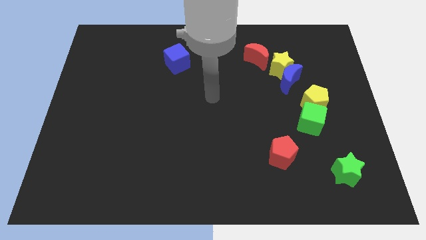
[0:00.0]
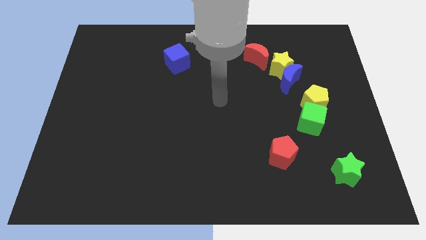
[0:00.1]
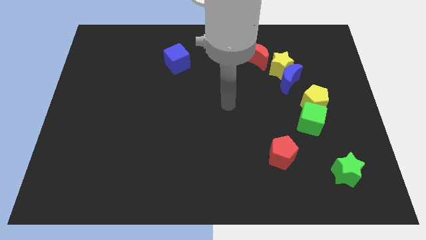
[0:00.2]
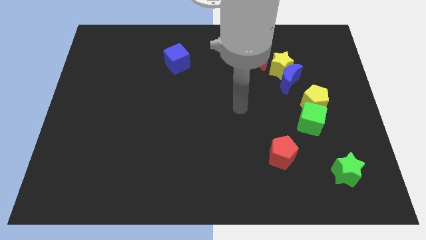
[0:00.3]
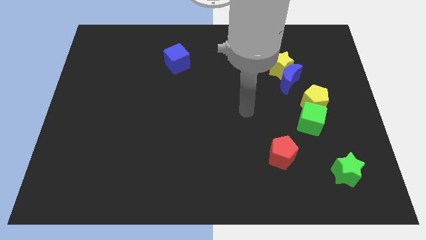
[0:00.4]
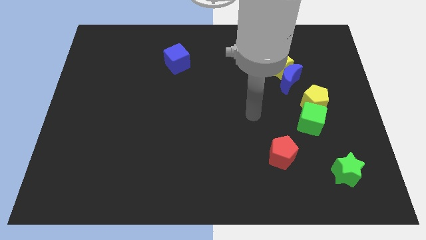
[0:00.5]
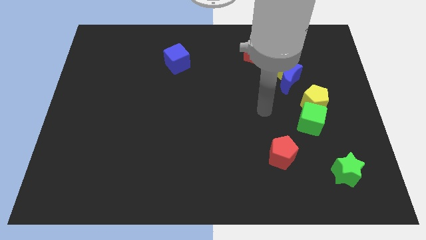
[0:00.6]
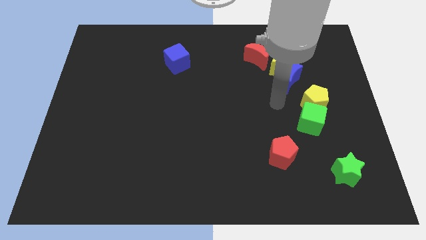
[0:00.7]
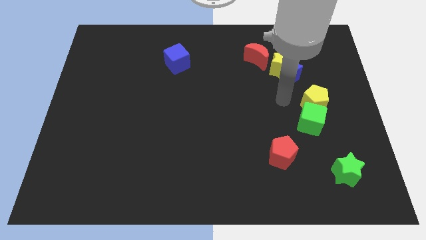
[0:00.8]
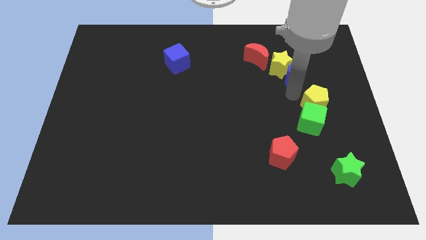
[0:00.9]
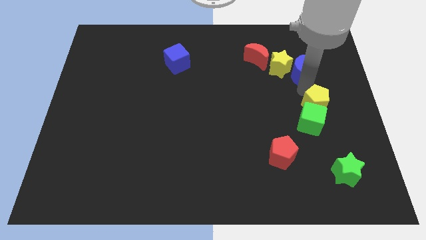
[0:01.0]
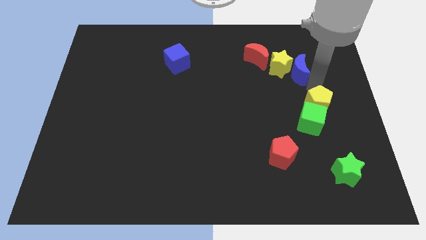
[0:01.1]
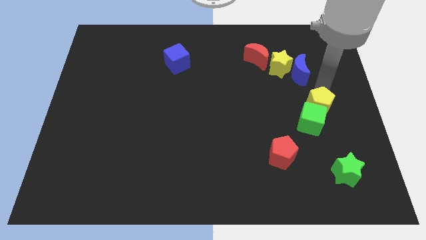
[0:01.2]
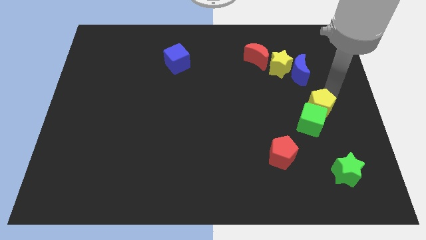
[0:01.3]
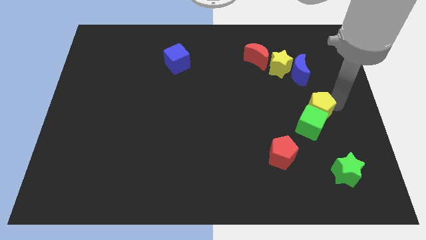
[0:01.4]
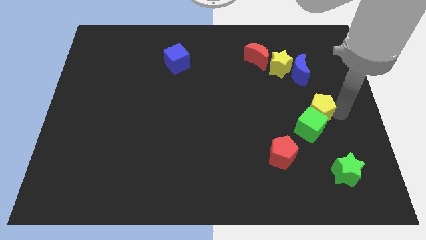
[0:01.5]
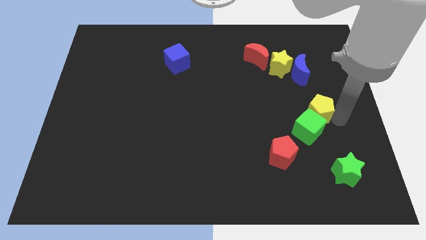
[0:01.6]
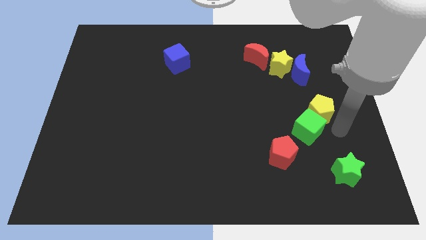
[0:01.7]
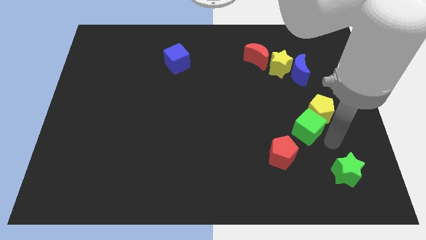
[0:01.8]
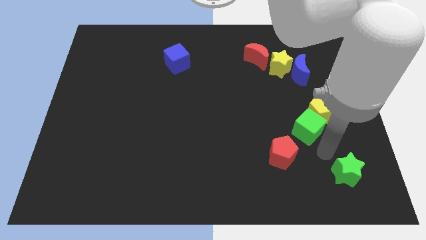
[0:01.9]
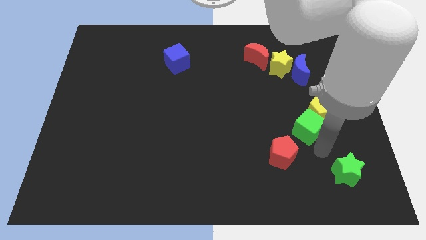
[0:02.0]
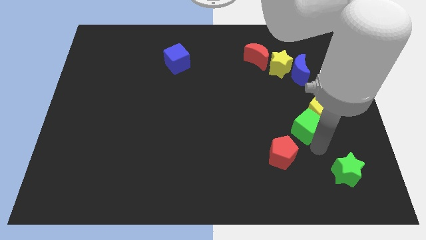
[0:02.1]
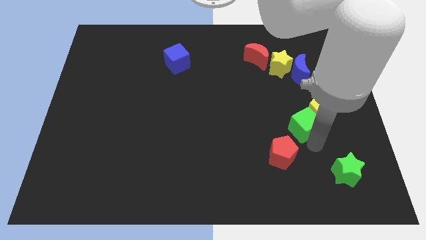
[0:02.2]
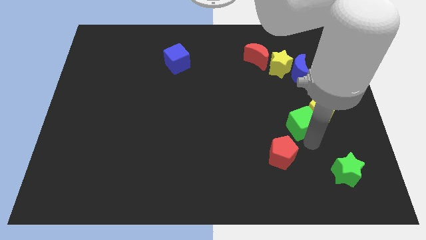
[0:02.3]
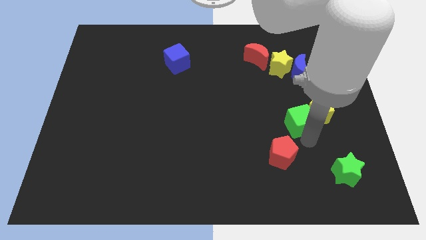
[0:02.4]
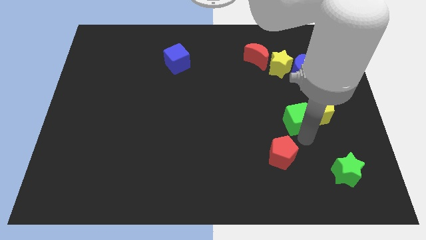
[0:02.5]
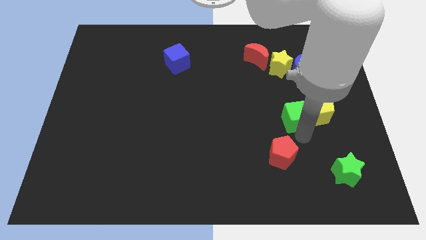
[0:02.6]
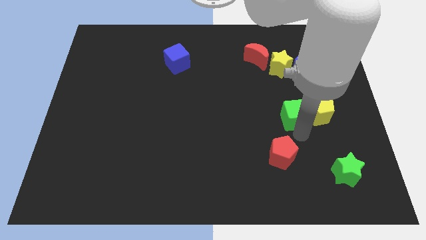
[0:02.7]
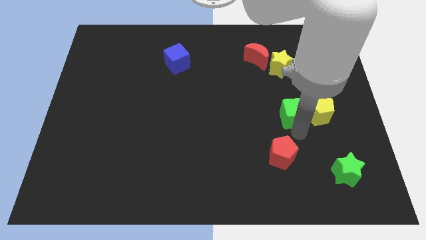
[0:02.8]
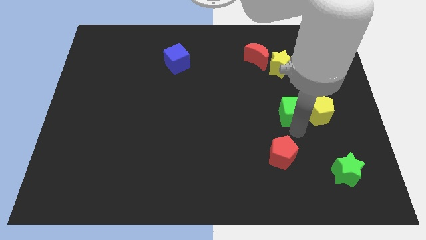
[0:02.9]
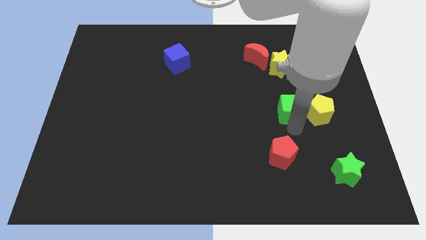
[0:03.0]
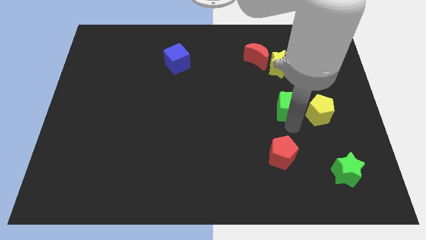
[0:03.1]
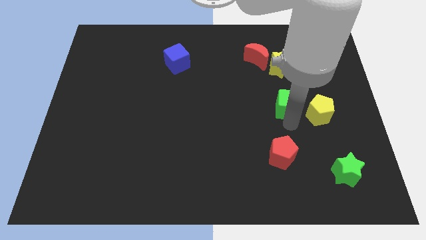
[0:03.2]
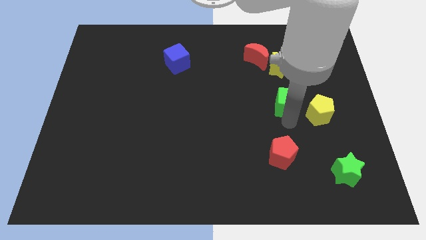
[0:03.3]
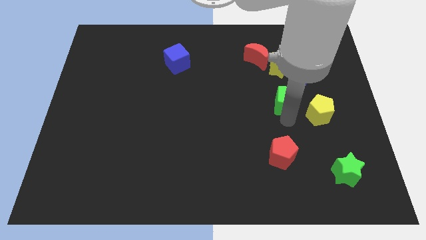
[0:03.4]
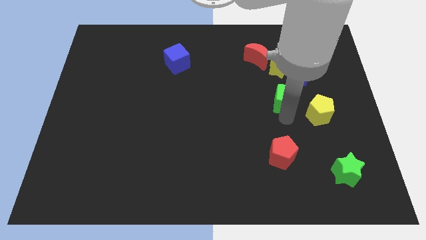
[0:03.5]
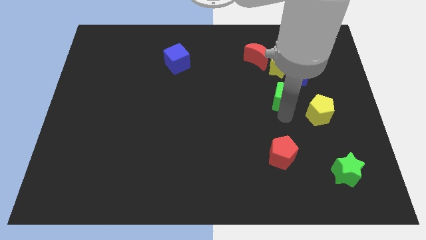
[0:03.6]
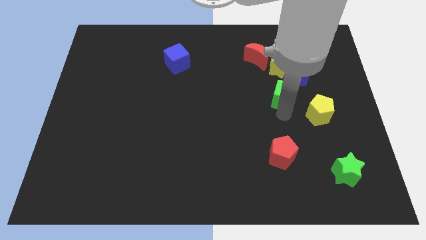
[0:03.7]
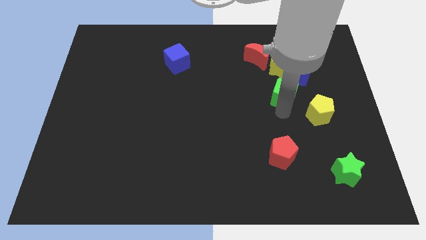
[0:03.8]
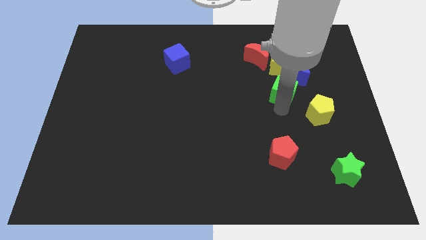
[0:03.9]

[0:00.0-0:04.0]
move the green cube upwards a little bit

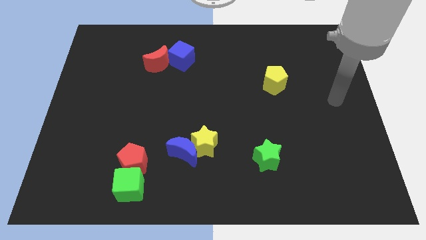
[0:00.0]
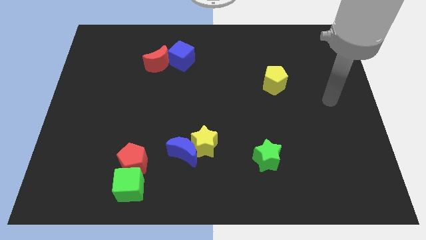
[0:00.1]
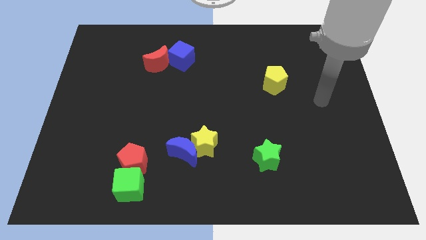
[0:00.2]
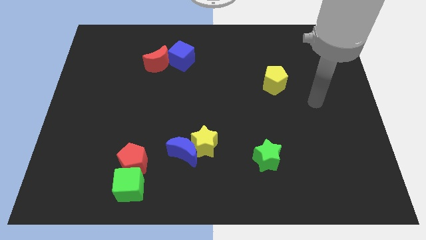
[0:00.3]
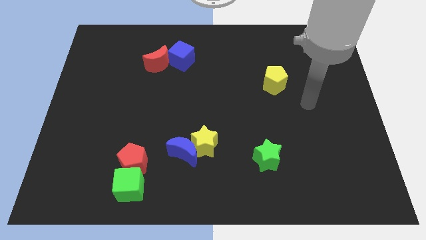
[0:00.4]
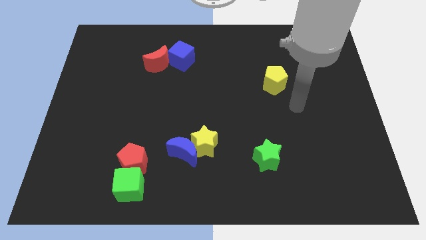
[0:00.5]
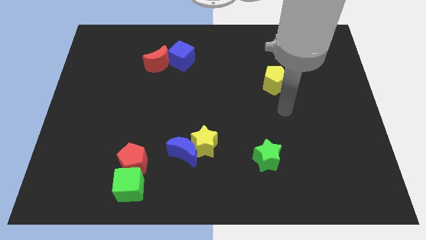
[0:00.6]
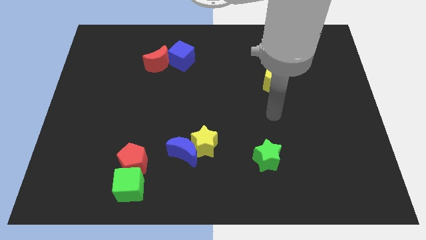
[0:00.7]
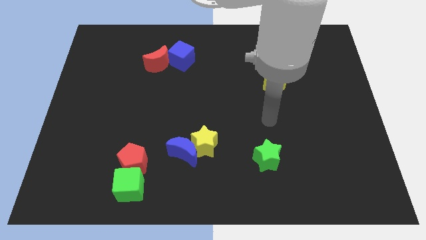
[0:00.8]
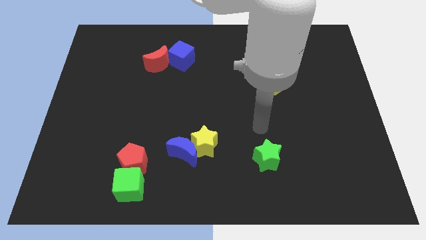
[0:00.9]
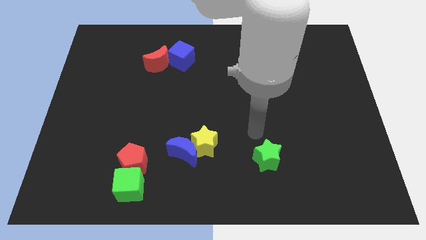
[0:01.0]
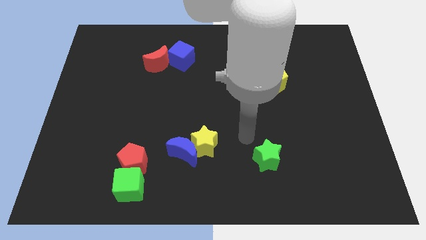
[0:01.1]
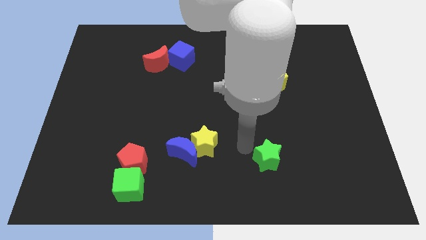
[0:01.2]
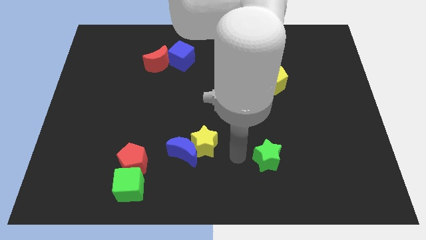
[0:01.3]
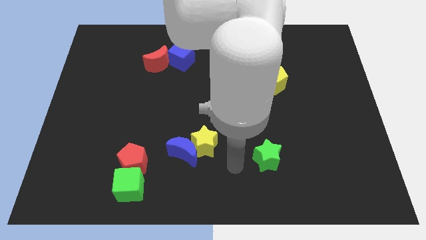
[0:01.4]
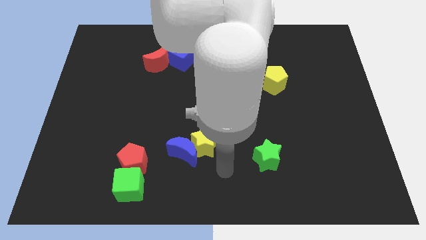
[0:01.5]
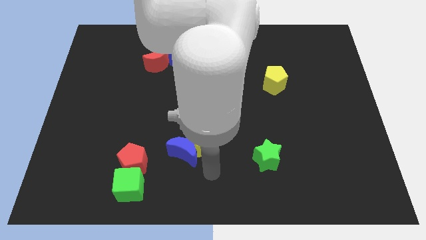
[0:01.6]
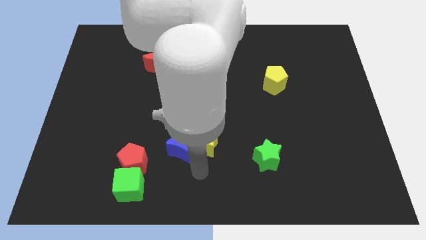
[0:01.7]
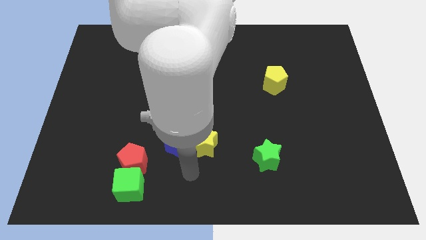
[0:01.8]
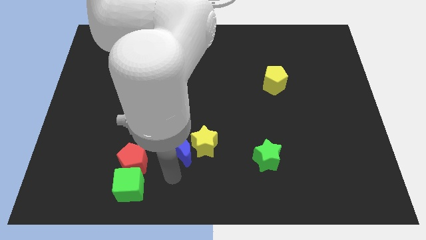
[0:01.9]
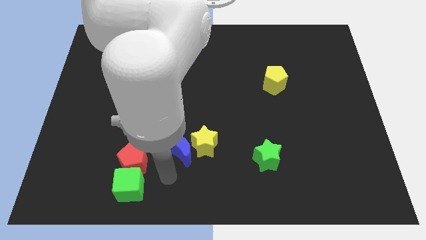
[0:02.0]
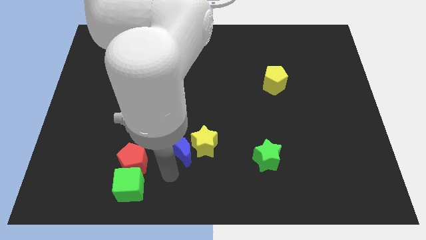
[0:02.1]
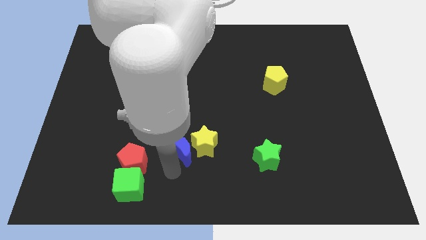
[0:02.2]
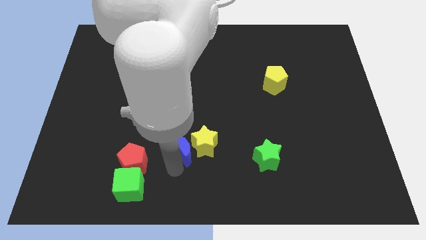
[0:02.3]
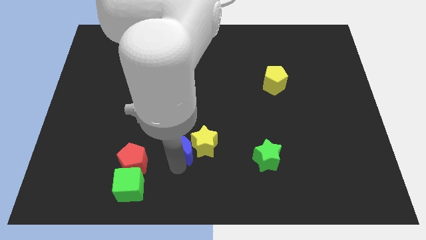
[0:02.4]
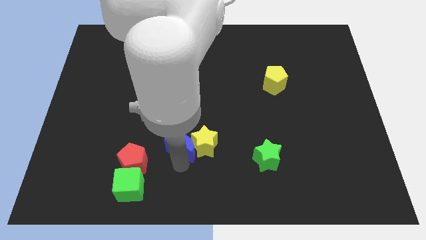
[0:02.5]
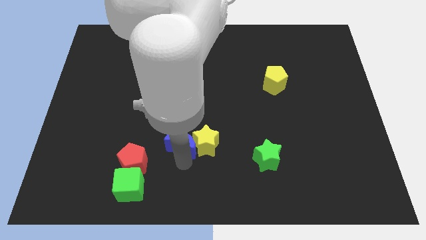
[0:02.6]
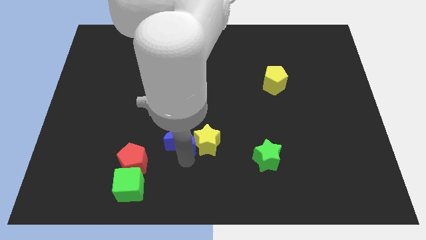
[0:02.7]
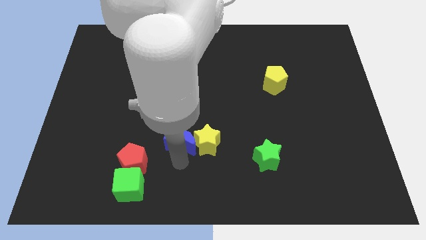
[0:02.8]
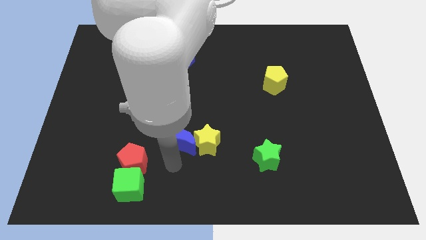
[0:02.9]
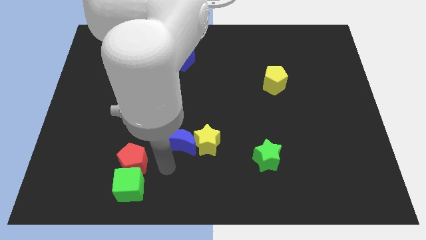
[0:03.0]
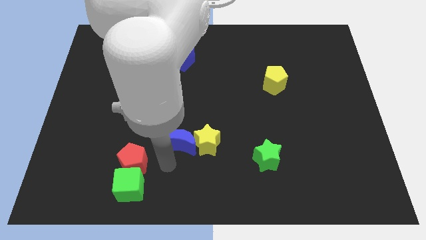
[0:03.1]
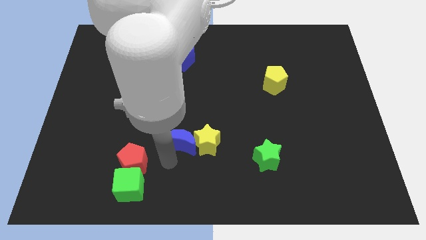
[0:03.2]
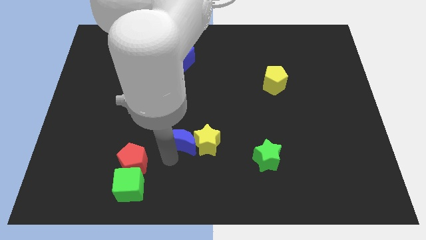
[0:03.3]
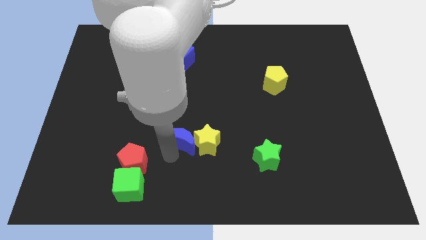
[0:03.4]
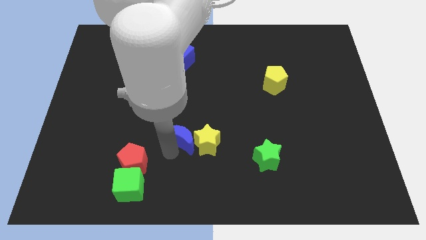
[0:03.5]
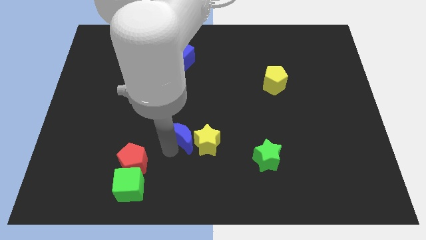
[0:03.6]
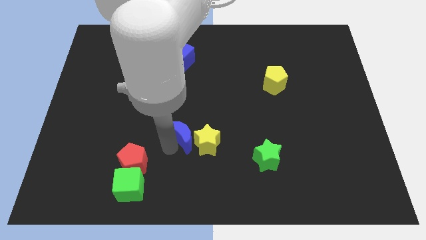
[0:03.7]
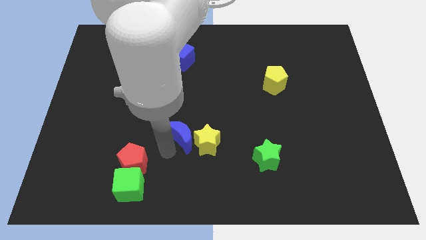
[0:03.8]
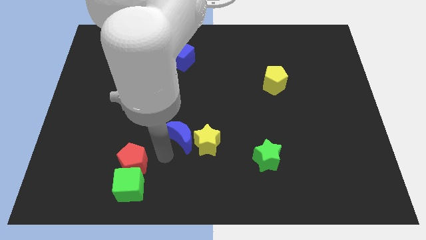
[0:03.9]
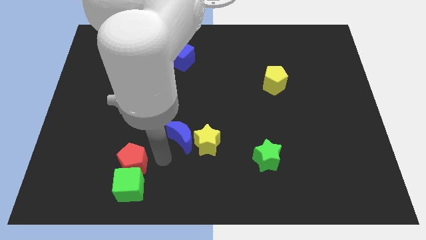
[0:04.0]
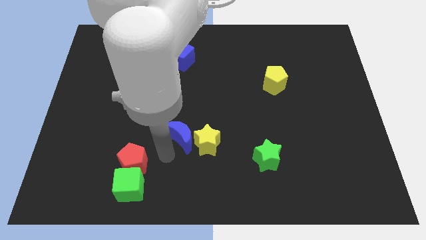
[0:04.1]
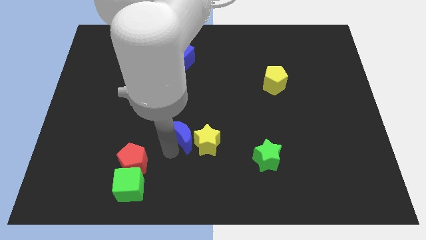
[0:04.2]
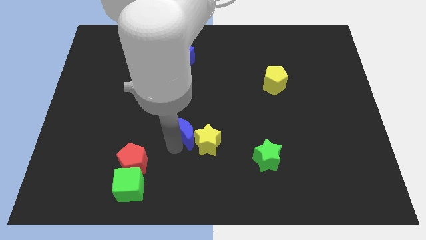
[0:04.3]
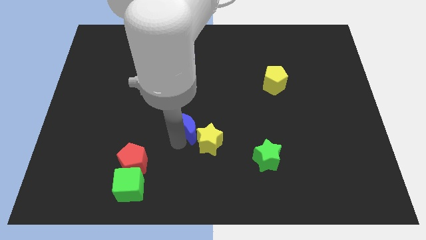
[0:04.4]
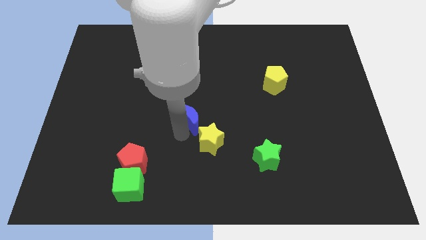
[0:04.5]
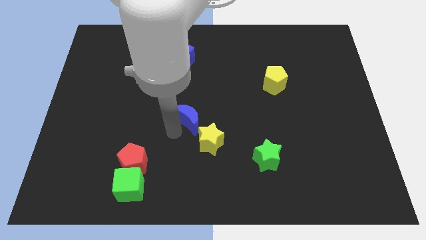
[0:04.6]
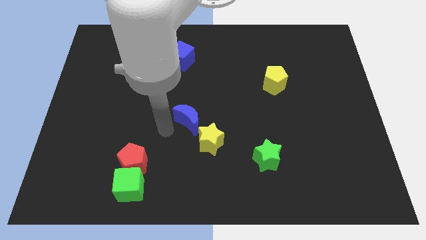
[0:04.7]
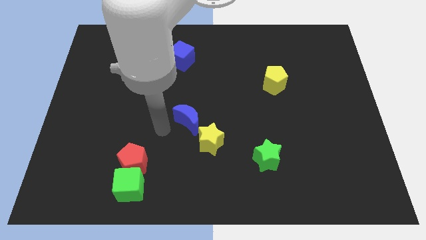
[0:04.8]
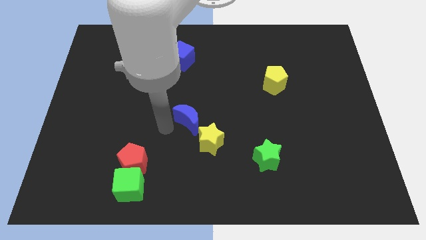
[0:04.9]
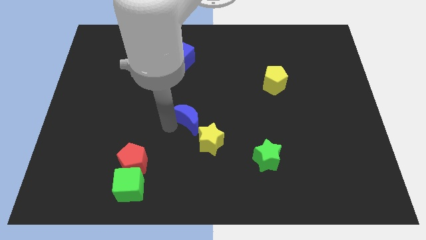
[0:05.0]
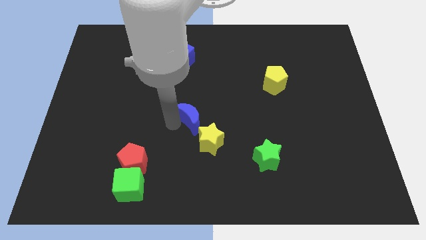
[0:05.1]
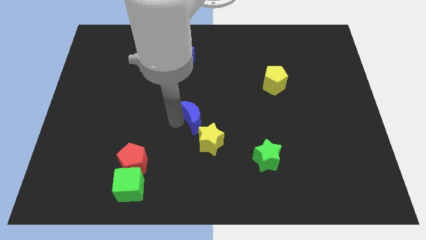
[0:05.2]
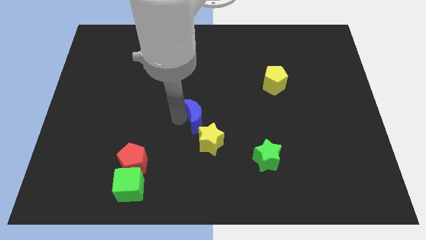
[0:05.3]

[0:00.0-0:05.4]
move the blue moon slightly upwards and right
